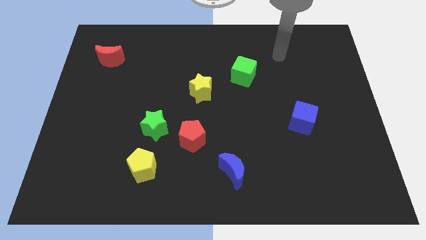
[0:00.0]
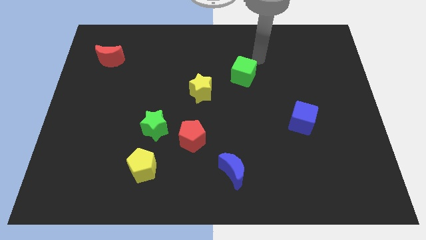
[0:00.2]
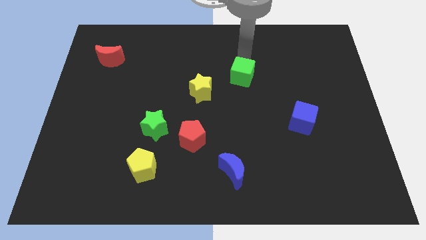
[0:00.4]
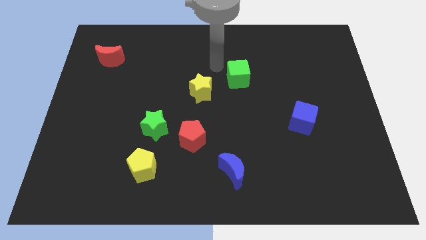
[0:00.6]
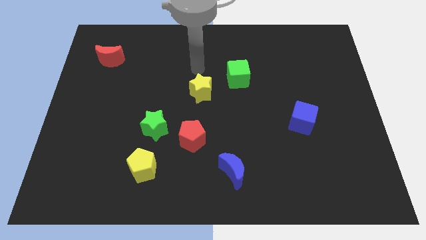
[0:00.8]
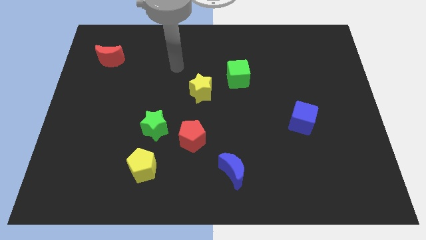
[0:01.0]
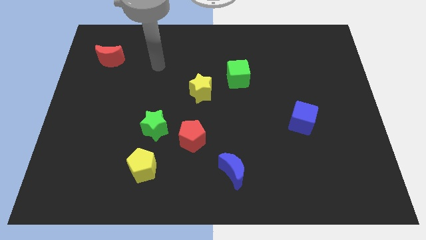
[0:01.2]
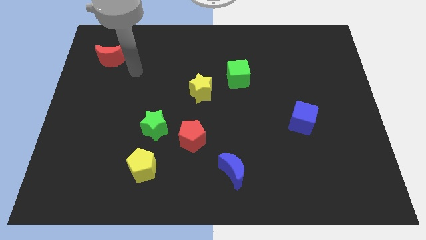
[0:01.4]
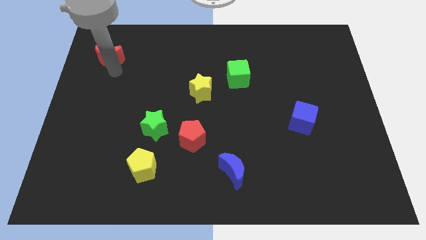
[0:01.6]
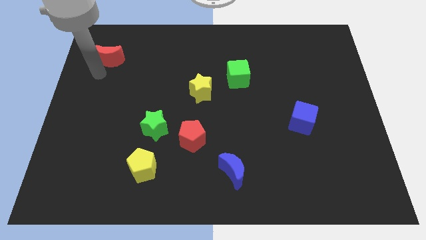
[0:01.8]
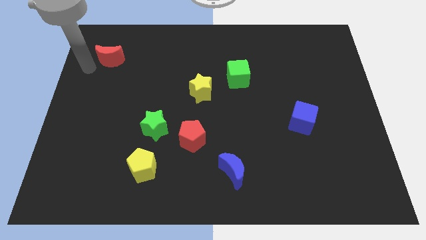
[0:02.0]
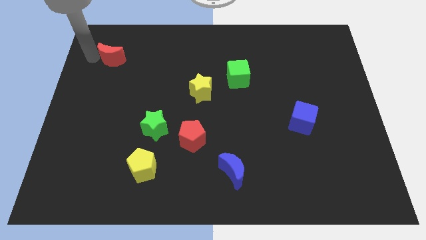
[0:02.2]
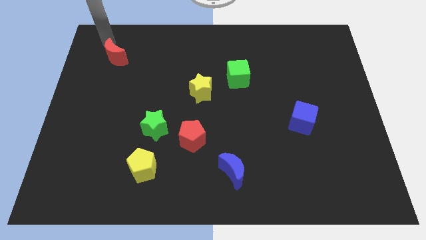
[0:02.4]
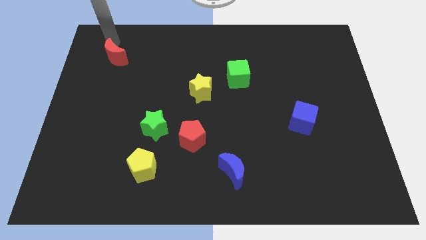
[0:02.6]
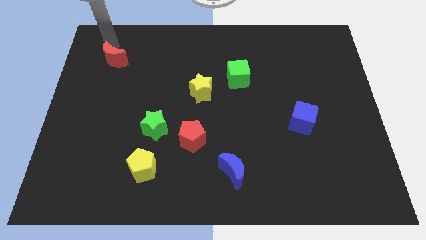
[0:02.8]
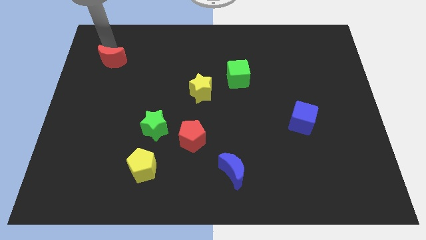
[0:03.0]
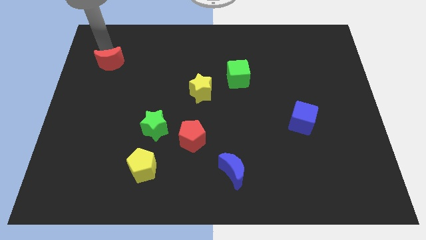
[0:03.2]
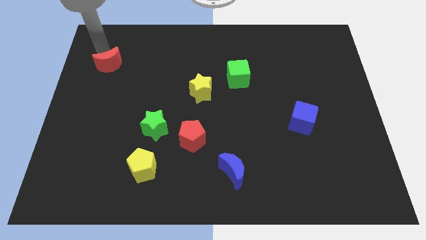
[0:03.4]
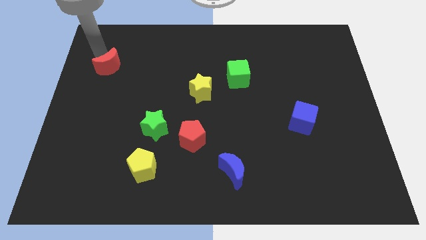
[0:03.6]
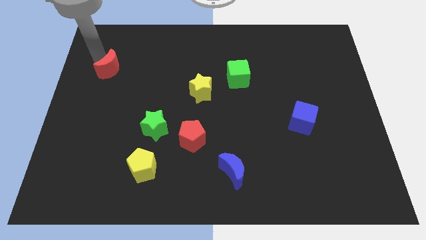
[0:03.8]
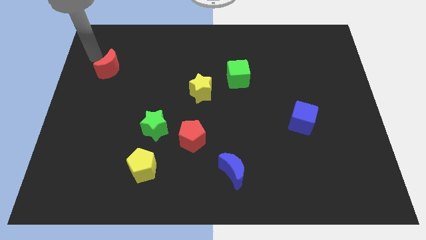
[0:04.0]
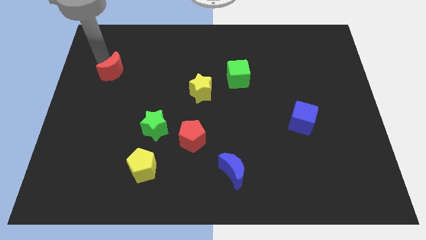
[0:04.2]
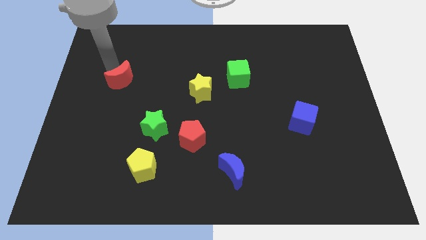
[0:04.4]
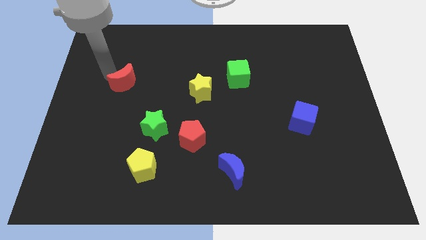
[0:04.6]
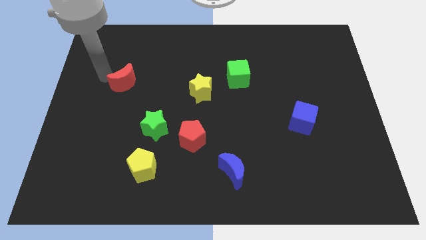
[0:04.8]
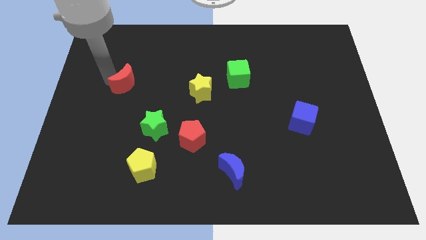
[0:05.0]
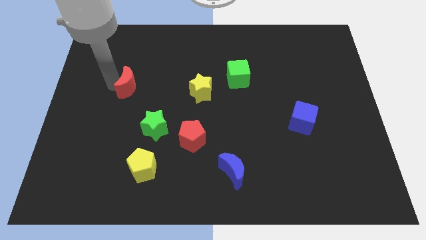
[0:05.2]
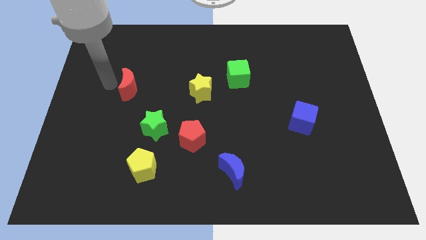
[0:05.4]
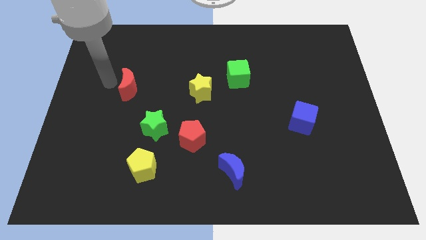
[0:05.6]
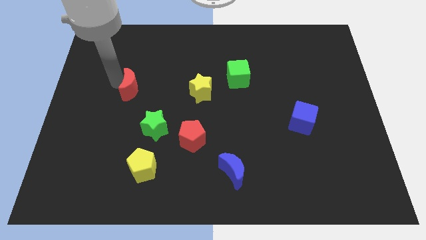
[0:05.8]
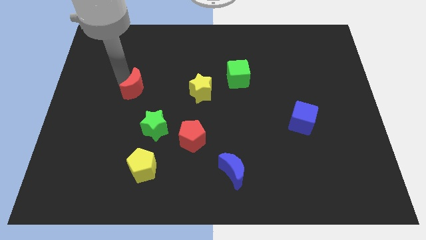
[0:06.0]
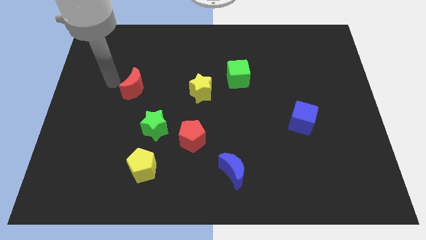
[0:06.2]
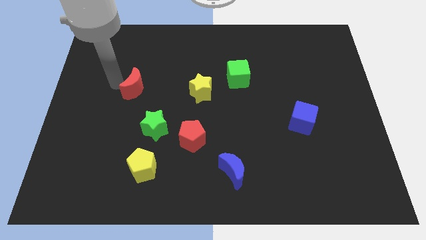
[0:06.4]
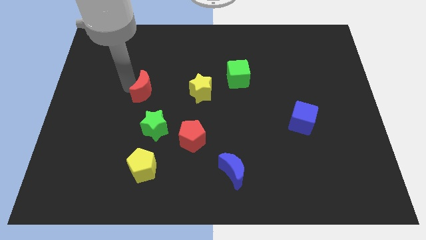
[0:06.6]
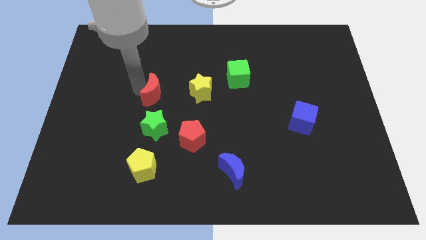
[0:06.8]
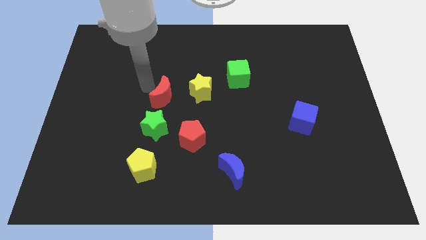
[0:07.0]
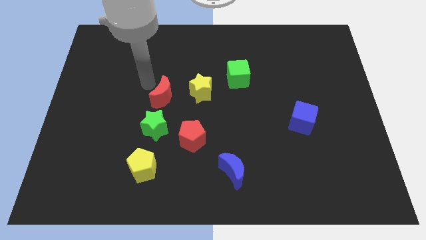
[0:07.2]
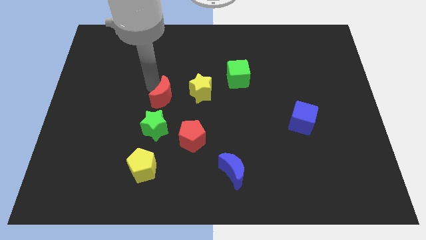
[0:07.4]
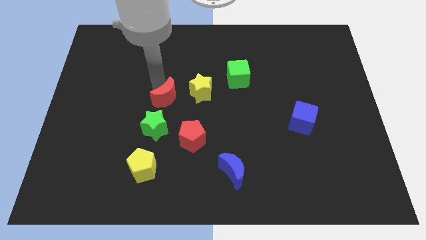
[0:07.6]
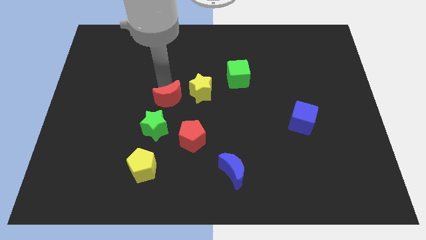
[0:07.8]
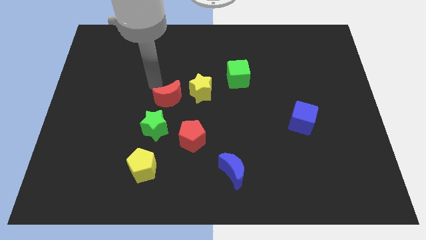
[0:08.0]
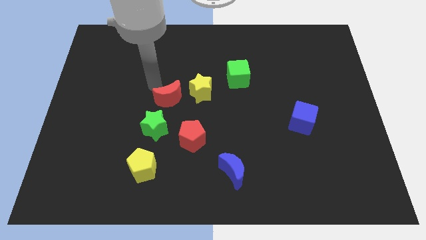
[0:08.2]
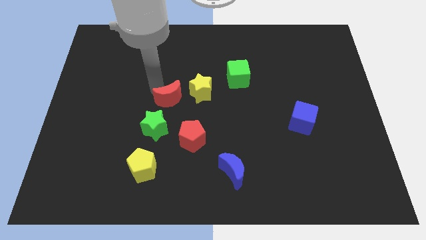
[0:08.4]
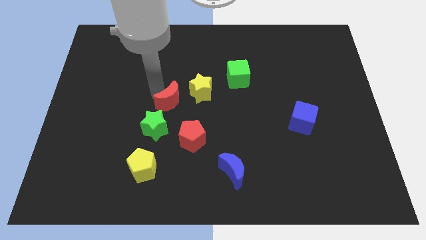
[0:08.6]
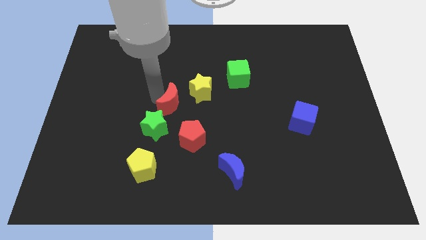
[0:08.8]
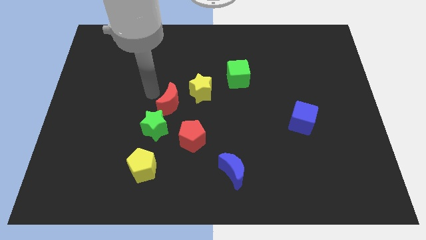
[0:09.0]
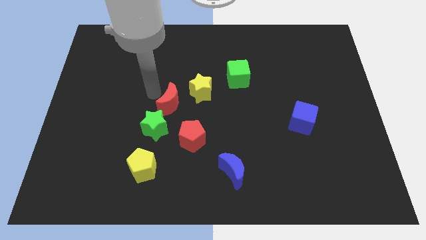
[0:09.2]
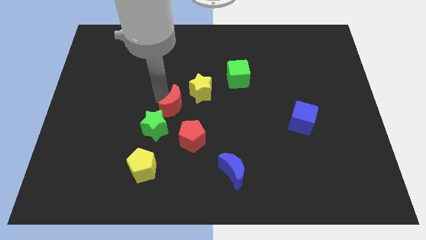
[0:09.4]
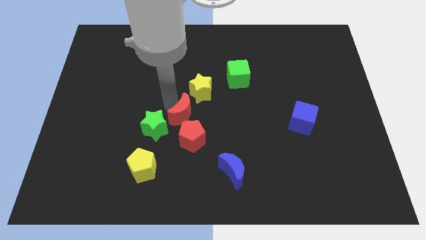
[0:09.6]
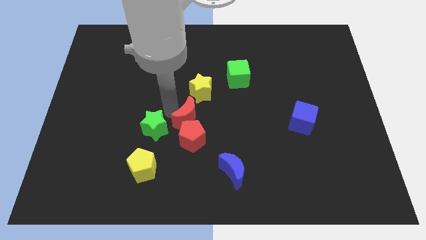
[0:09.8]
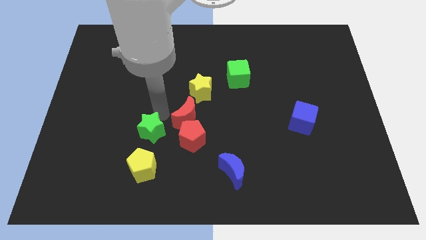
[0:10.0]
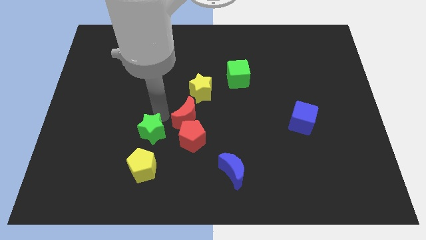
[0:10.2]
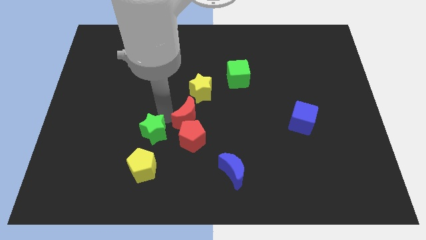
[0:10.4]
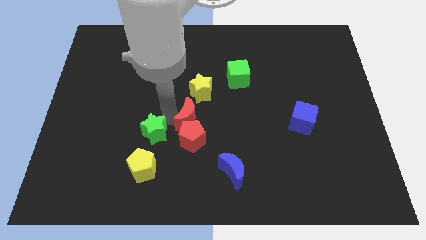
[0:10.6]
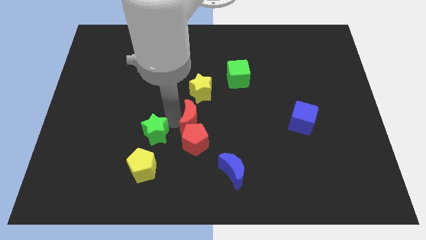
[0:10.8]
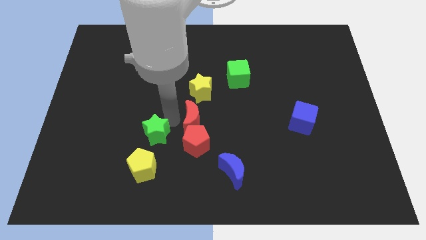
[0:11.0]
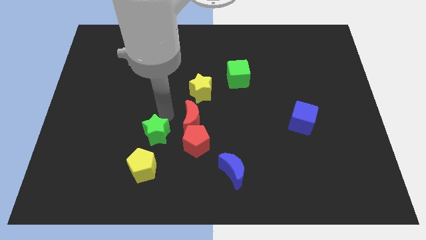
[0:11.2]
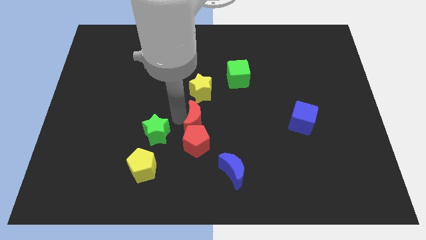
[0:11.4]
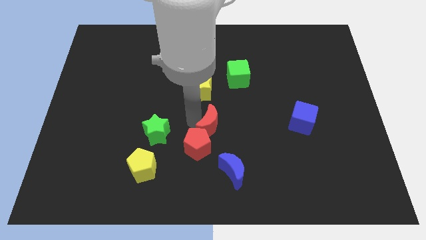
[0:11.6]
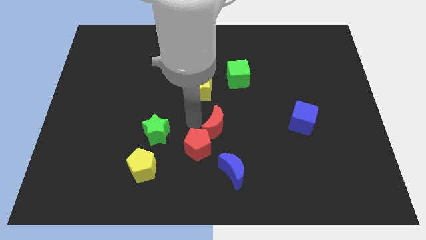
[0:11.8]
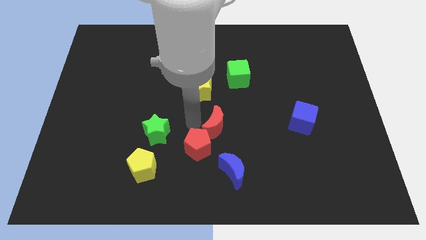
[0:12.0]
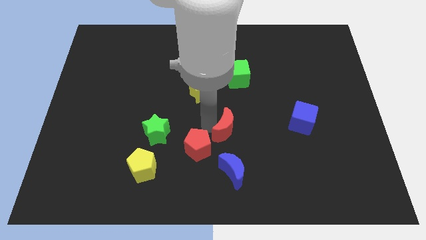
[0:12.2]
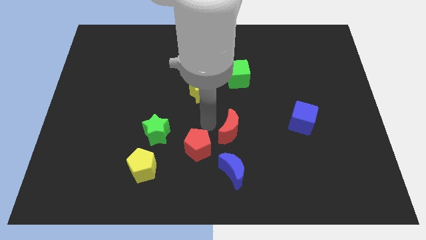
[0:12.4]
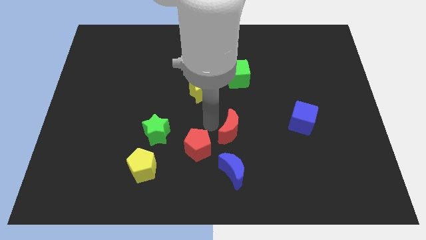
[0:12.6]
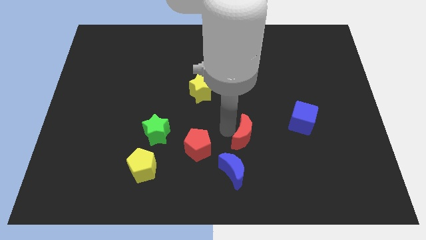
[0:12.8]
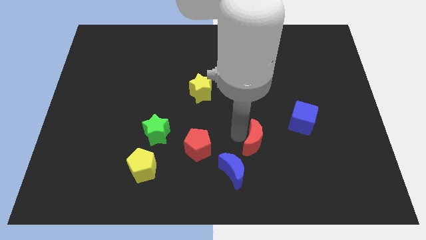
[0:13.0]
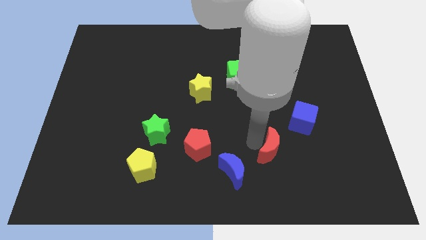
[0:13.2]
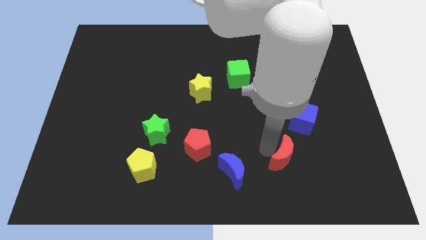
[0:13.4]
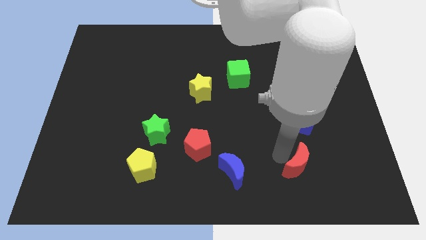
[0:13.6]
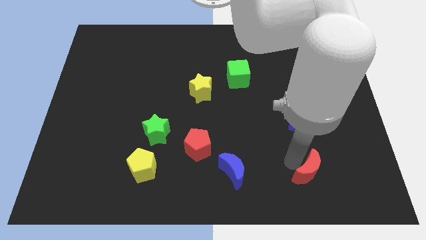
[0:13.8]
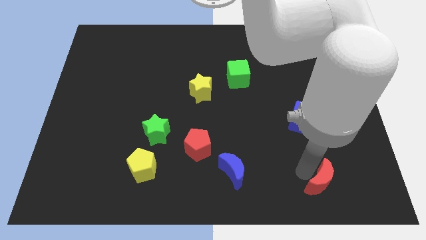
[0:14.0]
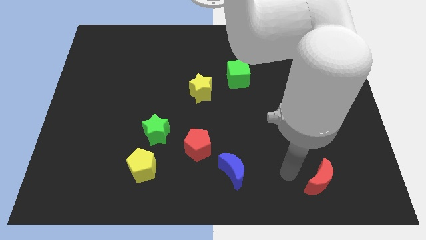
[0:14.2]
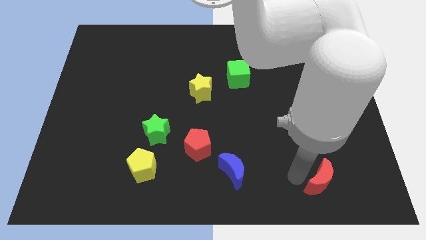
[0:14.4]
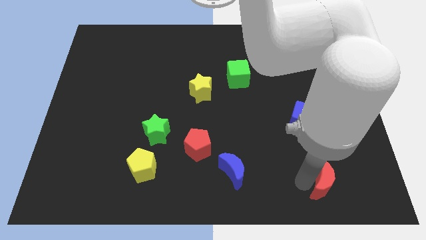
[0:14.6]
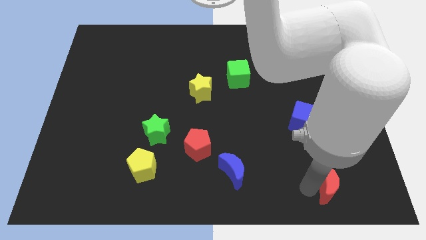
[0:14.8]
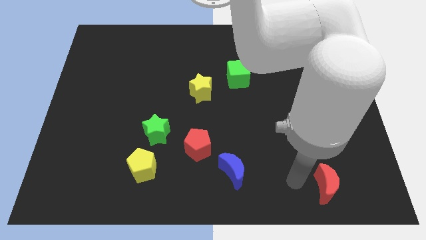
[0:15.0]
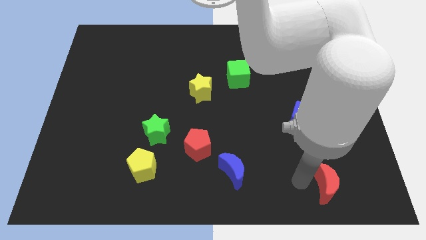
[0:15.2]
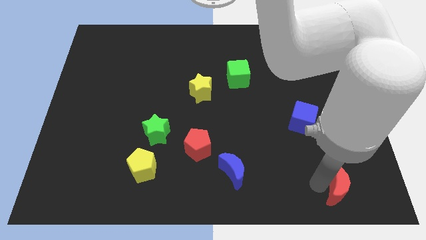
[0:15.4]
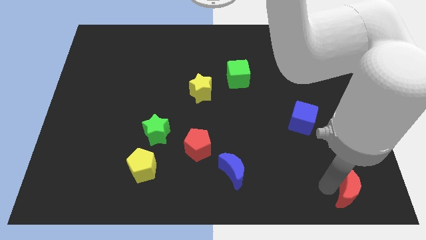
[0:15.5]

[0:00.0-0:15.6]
push the red moon to the bottom right corner
